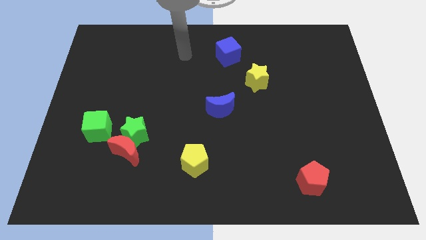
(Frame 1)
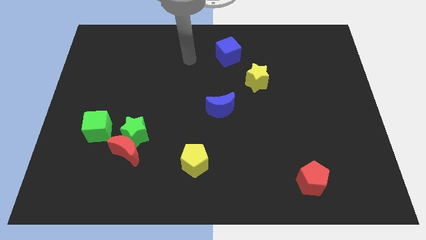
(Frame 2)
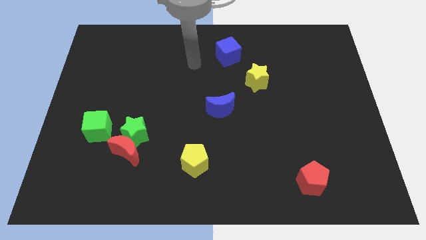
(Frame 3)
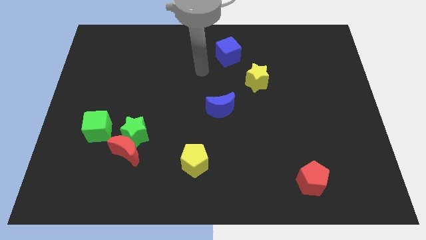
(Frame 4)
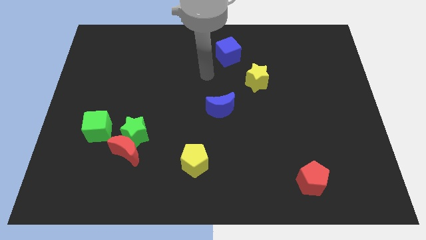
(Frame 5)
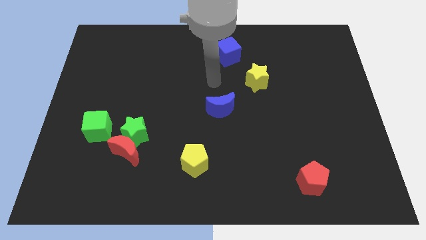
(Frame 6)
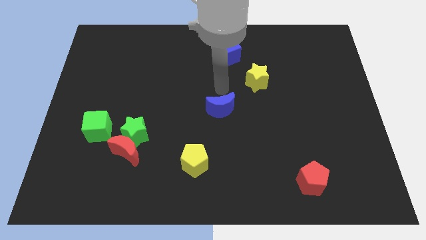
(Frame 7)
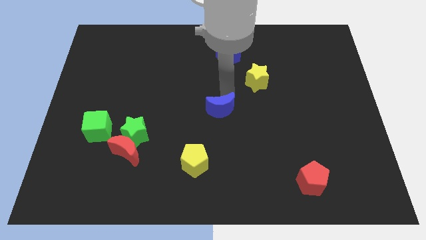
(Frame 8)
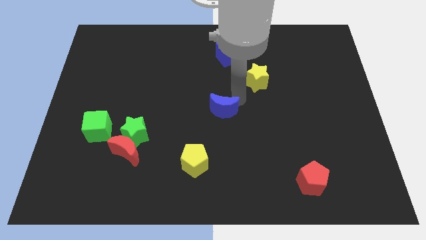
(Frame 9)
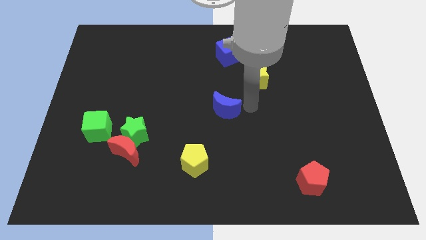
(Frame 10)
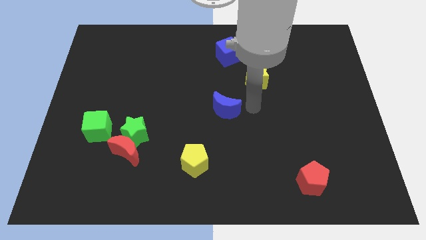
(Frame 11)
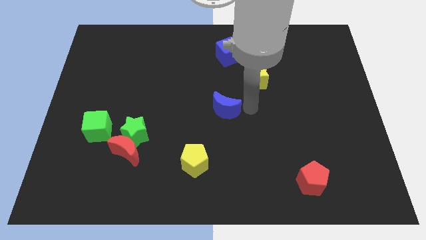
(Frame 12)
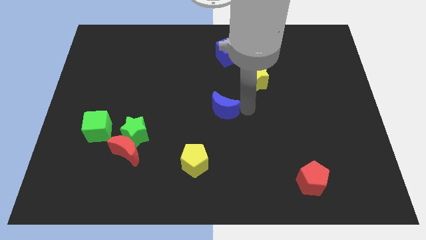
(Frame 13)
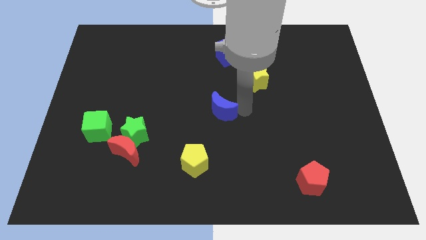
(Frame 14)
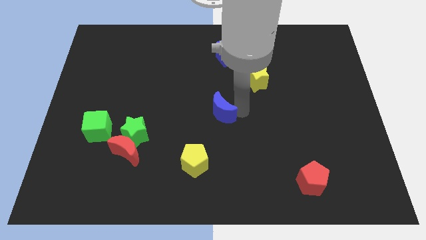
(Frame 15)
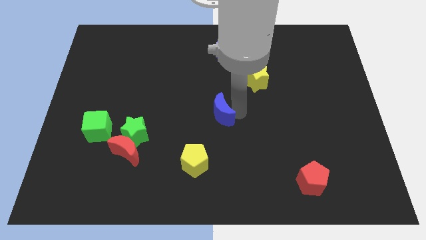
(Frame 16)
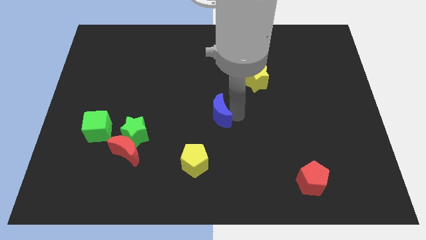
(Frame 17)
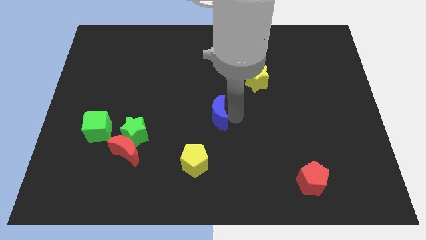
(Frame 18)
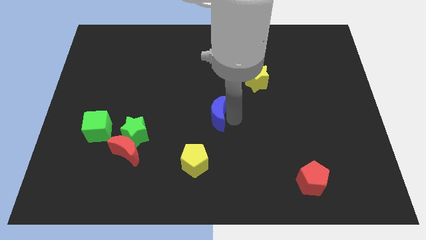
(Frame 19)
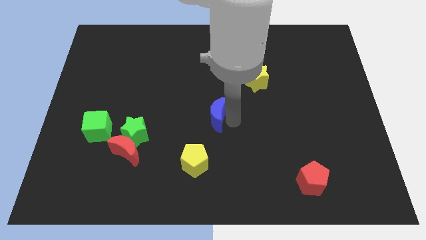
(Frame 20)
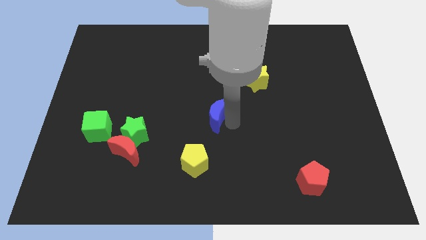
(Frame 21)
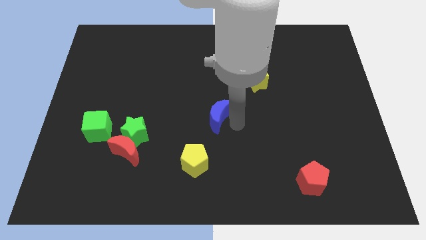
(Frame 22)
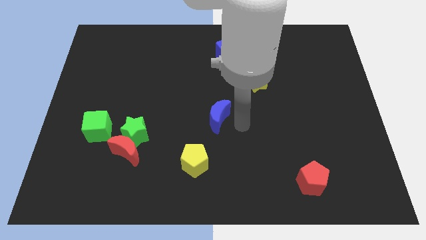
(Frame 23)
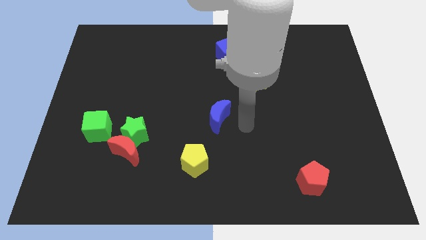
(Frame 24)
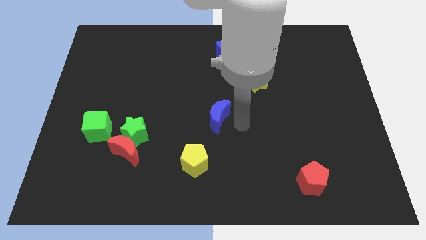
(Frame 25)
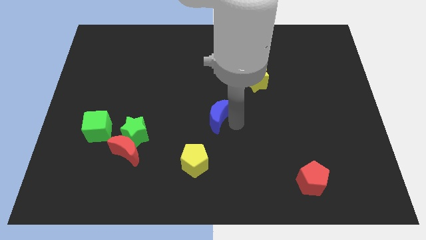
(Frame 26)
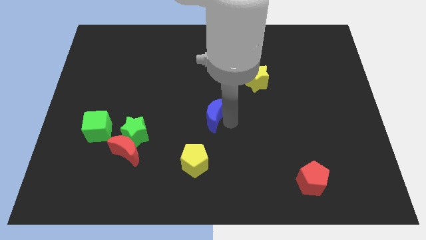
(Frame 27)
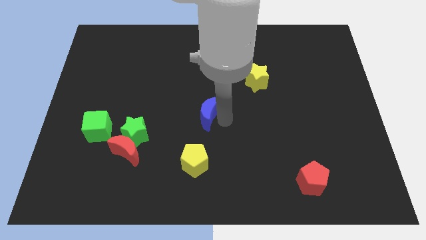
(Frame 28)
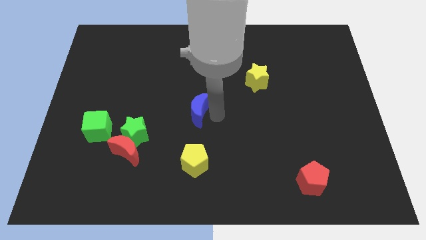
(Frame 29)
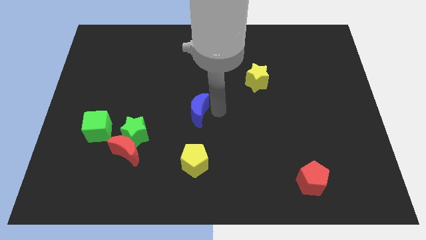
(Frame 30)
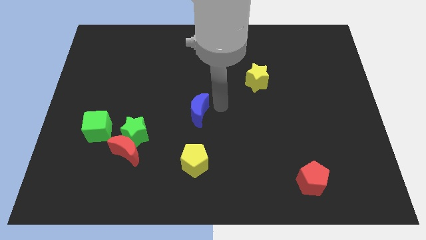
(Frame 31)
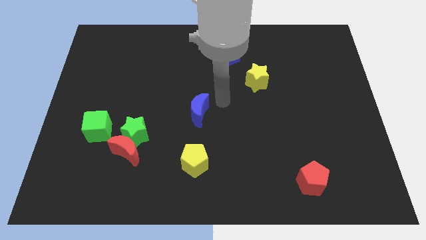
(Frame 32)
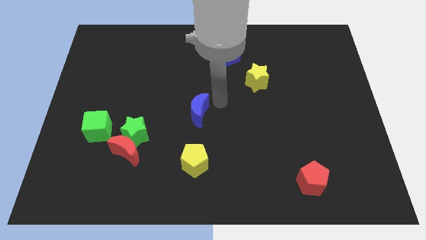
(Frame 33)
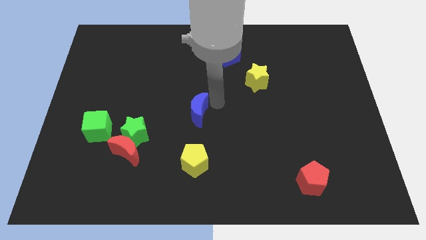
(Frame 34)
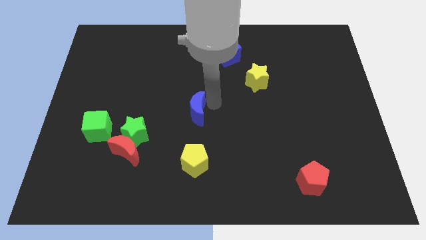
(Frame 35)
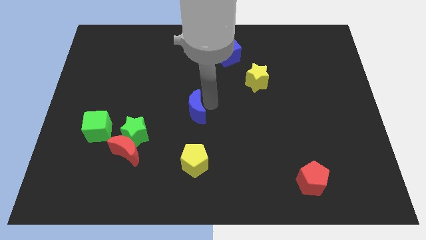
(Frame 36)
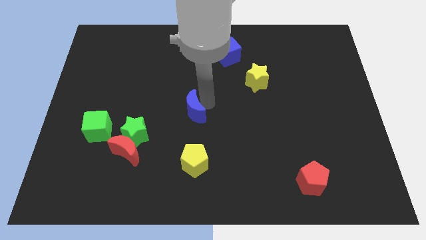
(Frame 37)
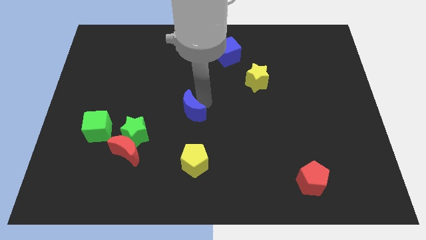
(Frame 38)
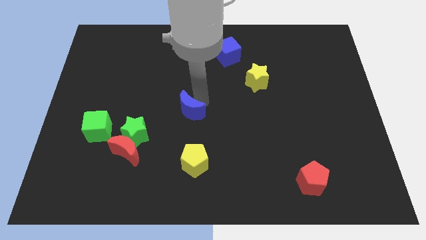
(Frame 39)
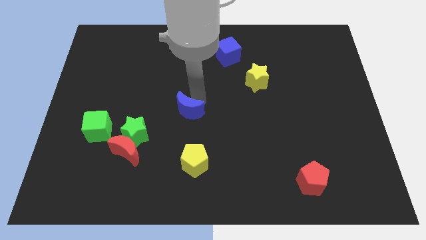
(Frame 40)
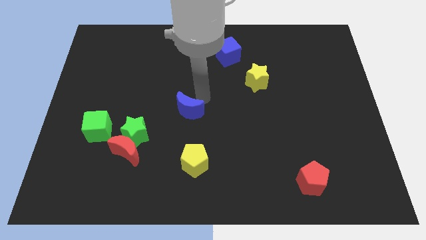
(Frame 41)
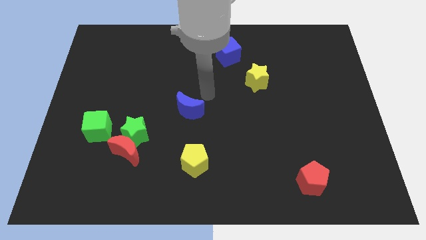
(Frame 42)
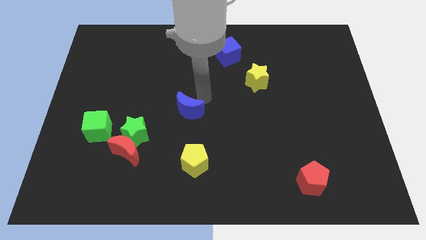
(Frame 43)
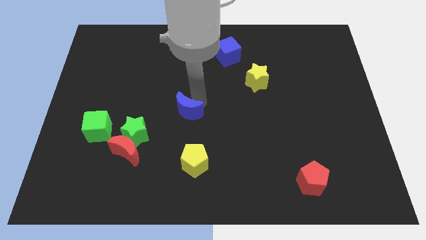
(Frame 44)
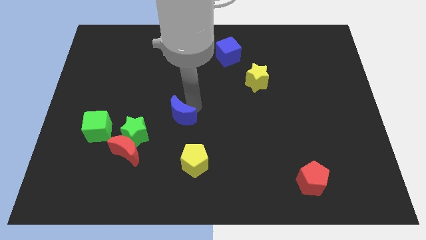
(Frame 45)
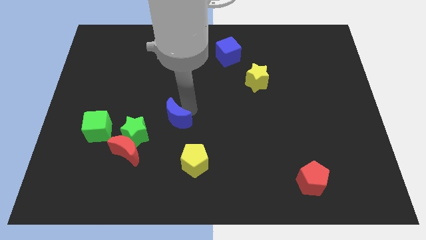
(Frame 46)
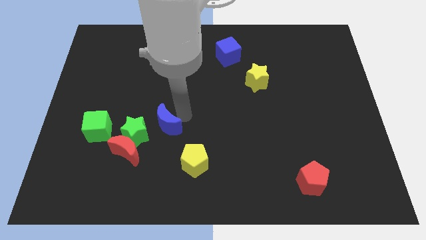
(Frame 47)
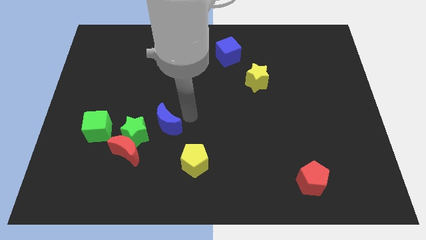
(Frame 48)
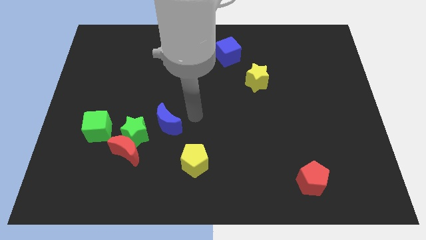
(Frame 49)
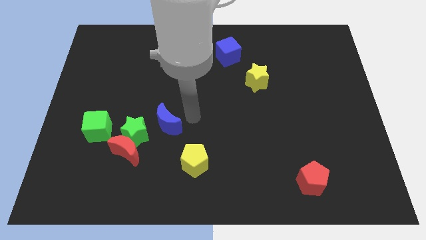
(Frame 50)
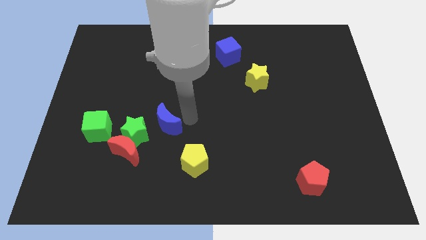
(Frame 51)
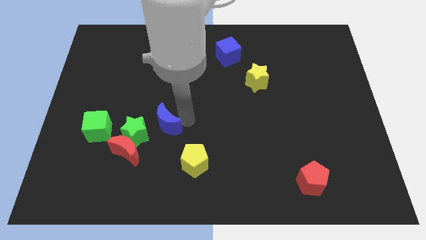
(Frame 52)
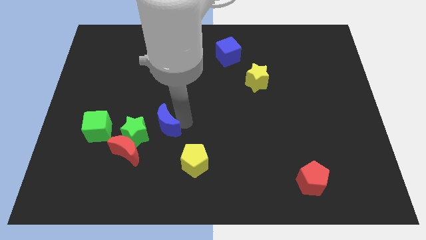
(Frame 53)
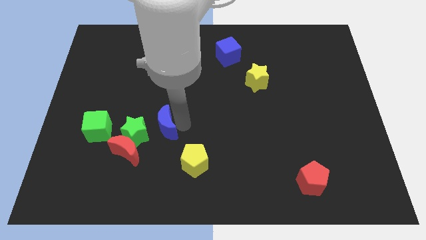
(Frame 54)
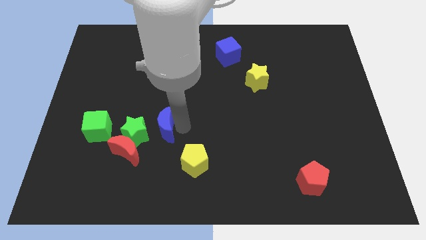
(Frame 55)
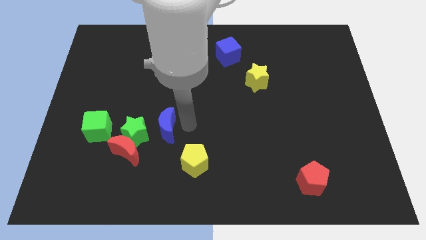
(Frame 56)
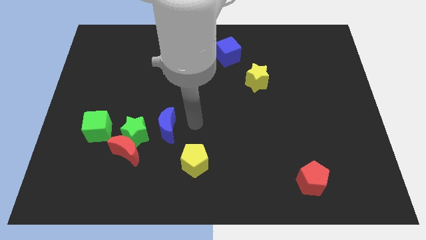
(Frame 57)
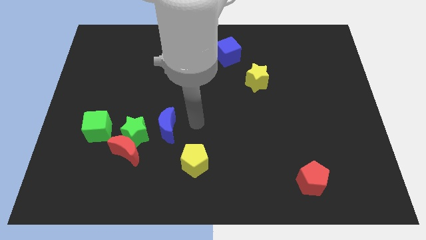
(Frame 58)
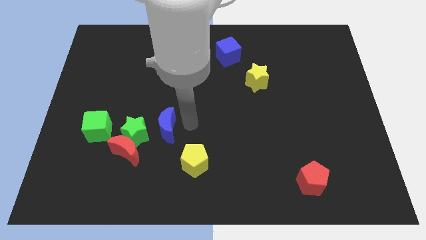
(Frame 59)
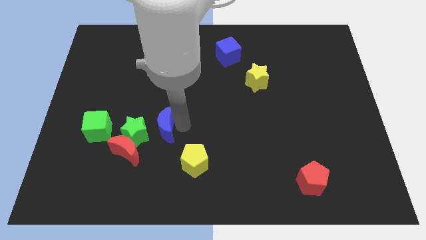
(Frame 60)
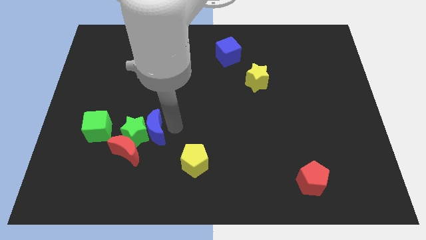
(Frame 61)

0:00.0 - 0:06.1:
move the blue moon to the green star
